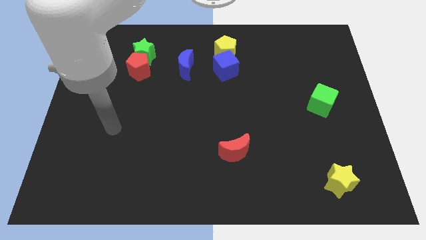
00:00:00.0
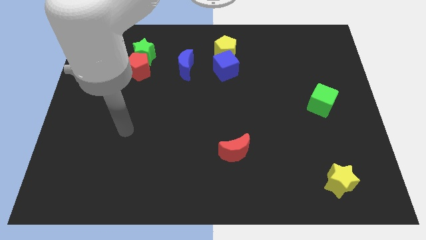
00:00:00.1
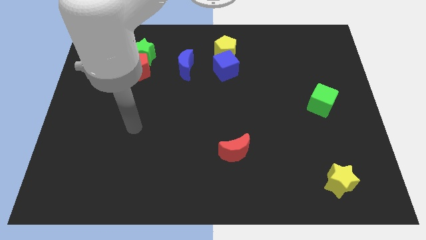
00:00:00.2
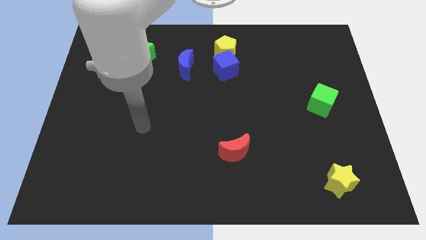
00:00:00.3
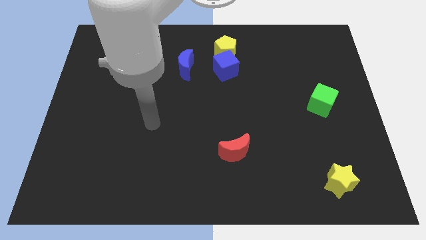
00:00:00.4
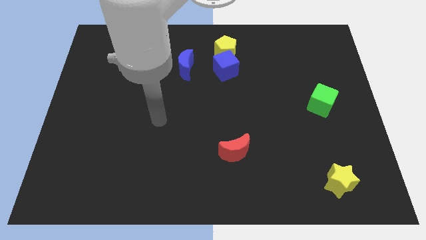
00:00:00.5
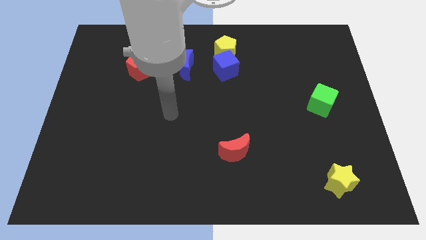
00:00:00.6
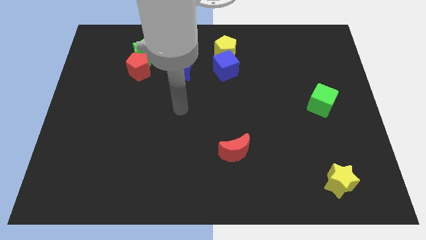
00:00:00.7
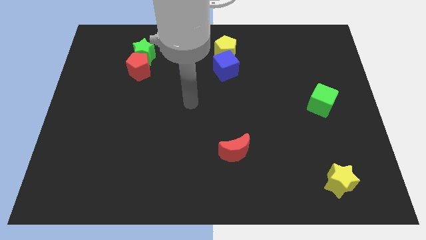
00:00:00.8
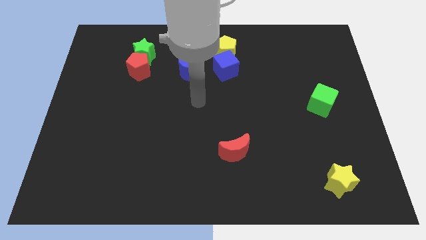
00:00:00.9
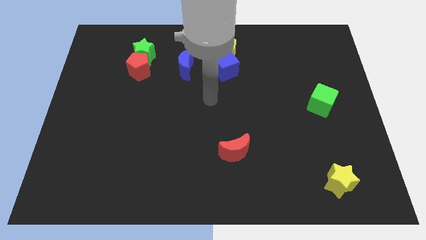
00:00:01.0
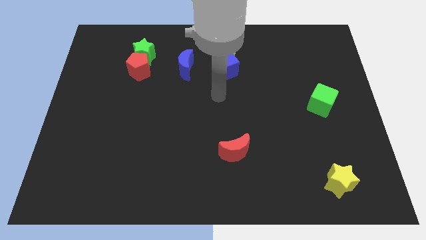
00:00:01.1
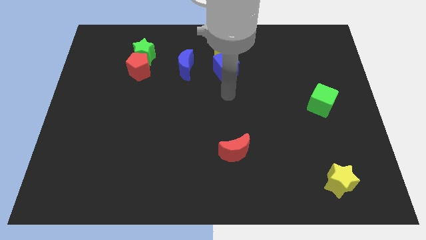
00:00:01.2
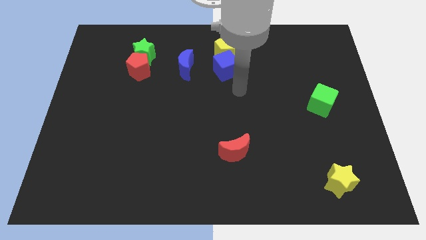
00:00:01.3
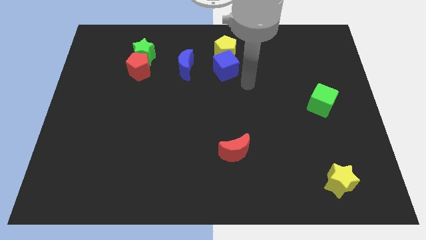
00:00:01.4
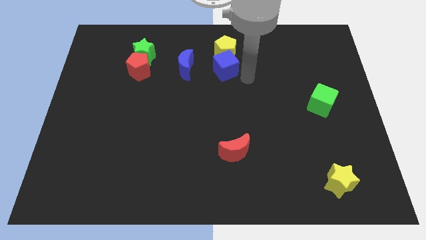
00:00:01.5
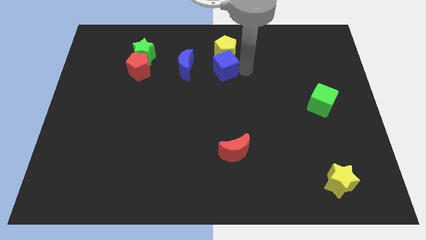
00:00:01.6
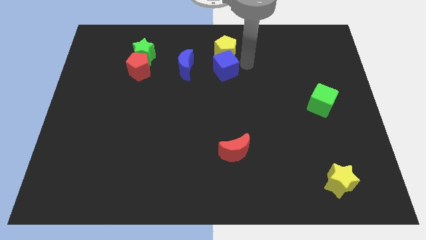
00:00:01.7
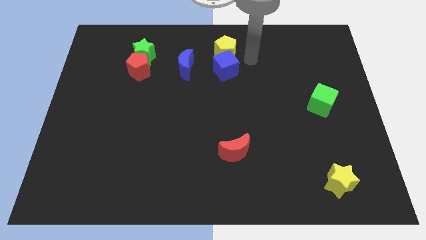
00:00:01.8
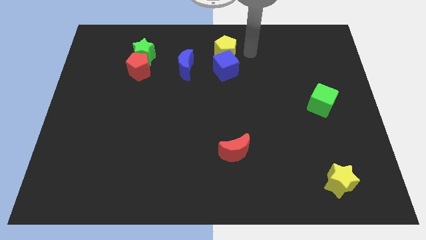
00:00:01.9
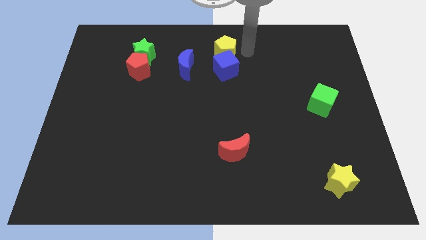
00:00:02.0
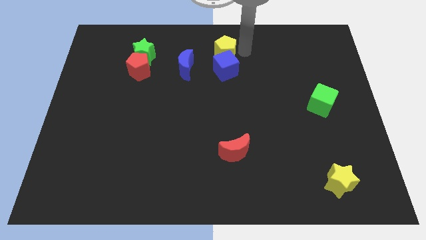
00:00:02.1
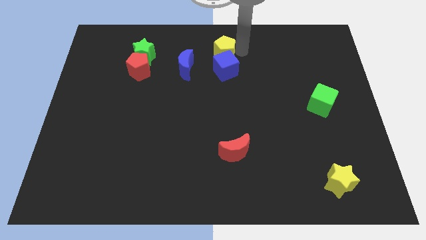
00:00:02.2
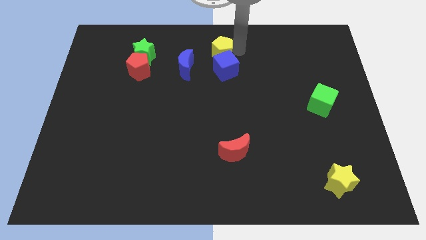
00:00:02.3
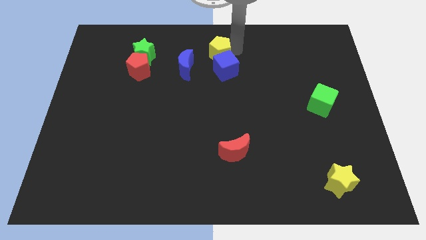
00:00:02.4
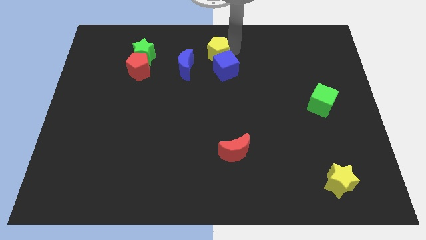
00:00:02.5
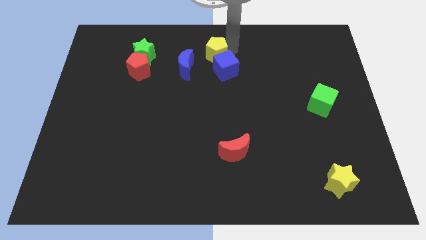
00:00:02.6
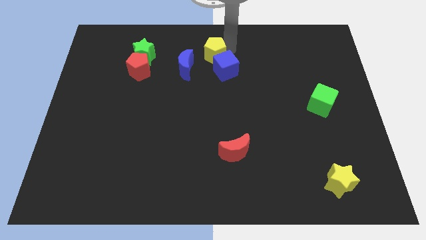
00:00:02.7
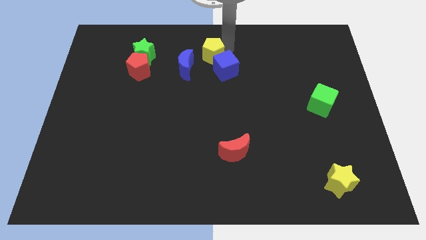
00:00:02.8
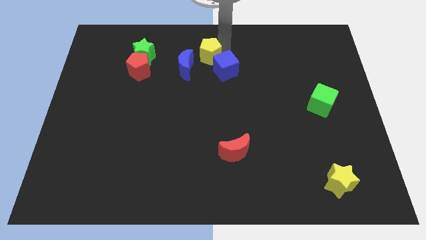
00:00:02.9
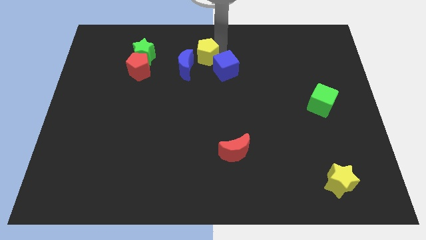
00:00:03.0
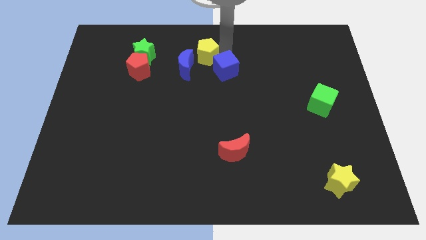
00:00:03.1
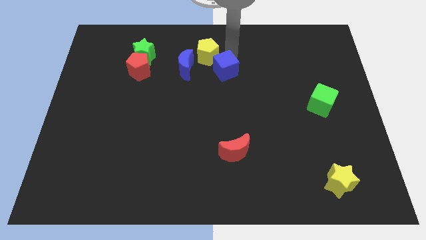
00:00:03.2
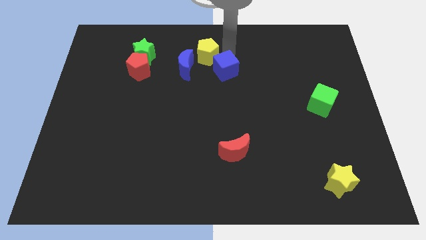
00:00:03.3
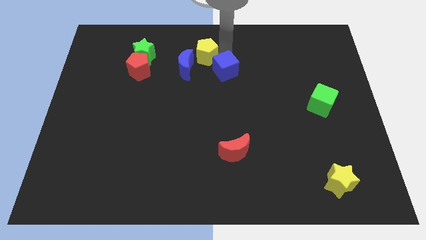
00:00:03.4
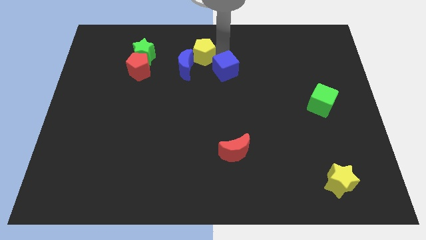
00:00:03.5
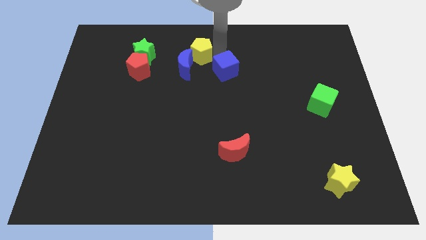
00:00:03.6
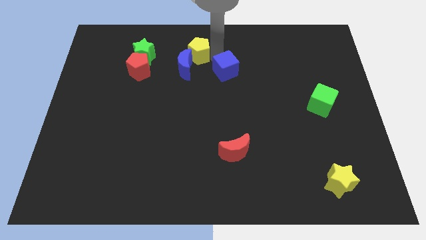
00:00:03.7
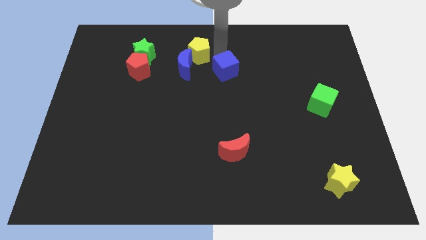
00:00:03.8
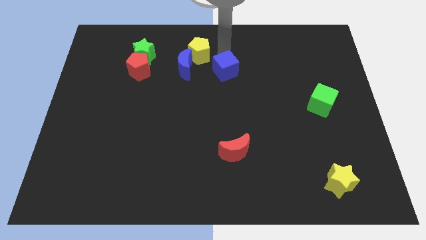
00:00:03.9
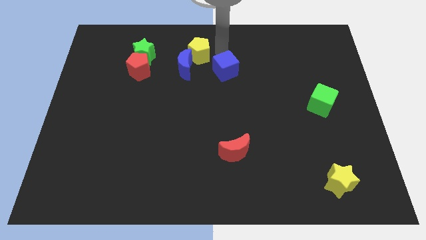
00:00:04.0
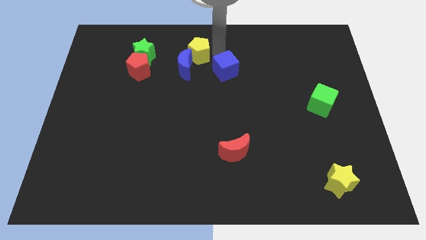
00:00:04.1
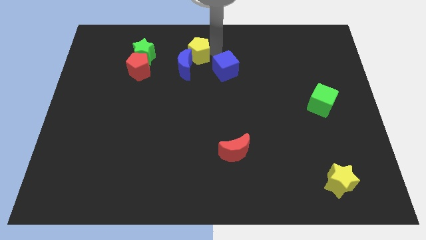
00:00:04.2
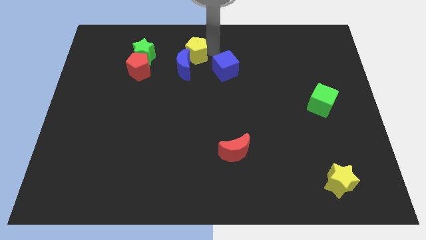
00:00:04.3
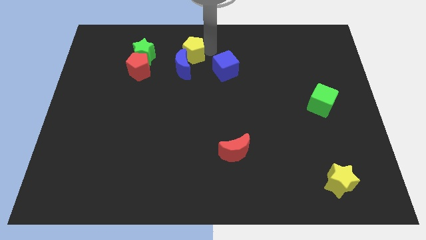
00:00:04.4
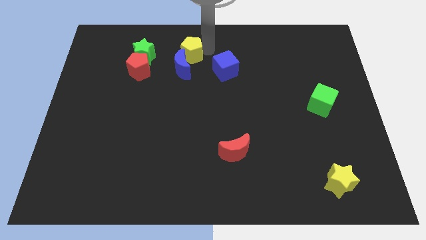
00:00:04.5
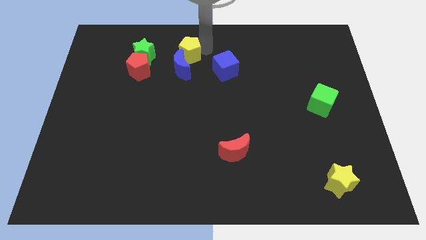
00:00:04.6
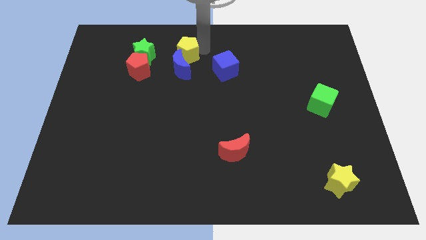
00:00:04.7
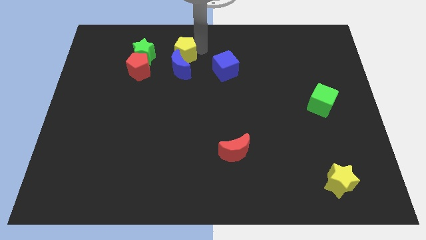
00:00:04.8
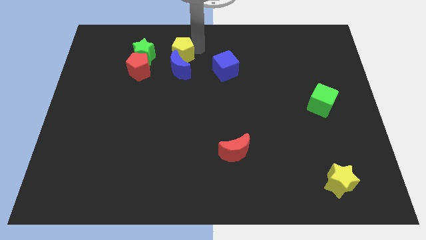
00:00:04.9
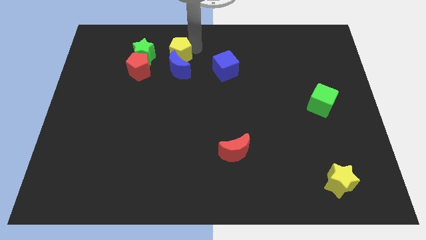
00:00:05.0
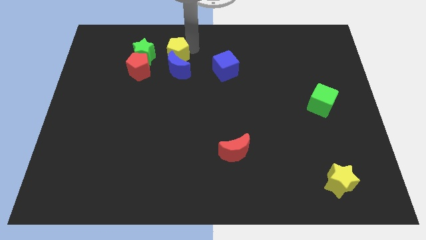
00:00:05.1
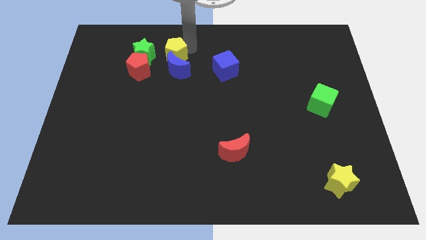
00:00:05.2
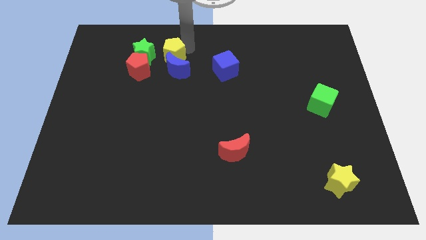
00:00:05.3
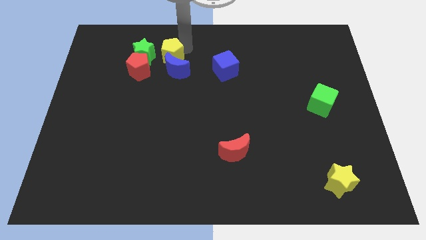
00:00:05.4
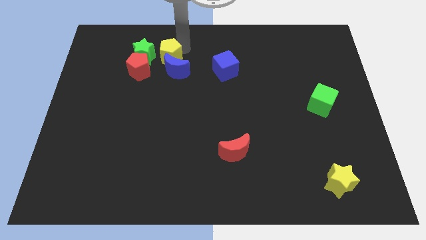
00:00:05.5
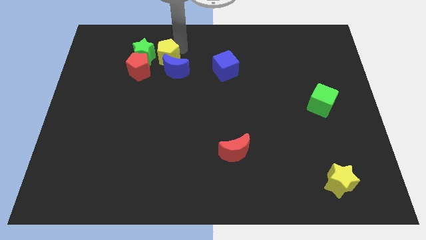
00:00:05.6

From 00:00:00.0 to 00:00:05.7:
put the yellow pentagon to the green star

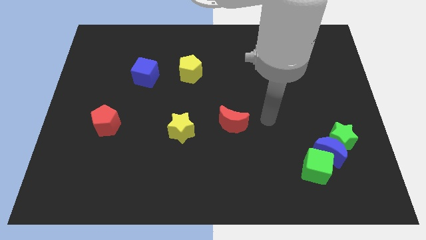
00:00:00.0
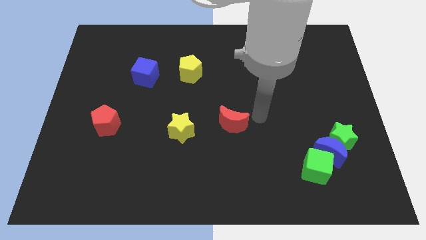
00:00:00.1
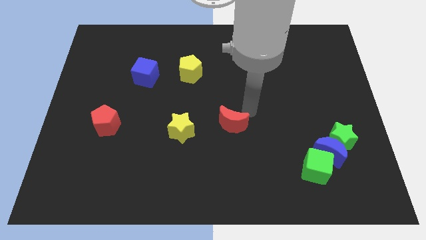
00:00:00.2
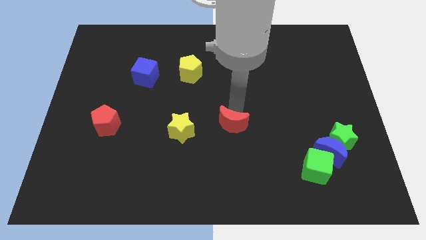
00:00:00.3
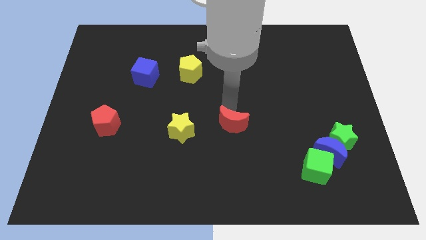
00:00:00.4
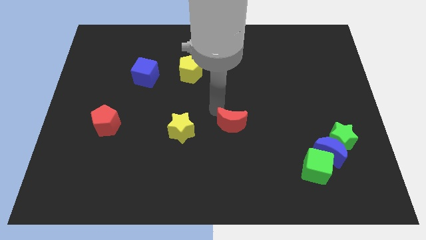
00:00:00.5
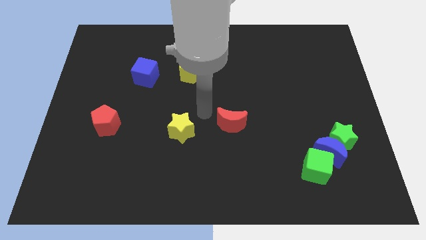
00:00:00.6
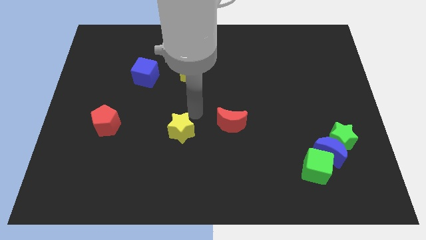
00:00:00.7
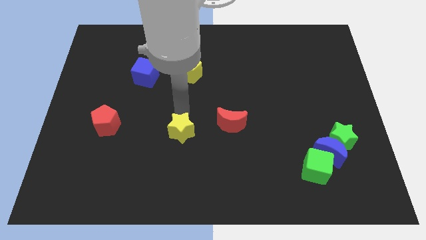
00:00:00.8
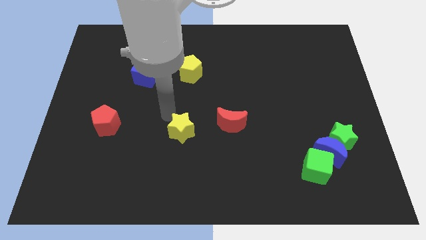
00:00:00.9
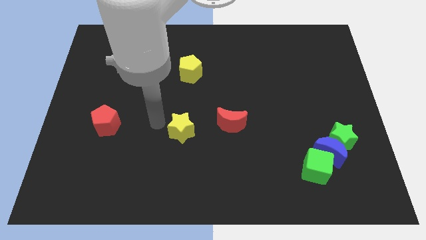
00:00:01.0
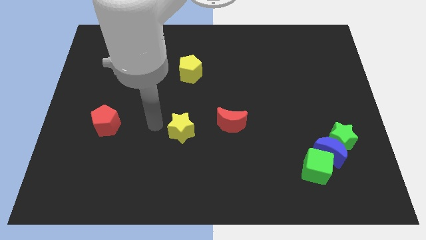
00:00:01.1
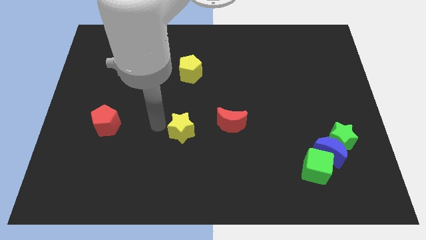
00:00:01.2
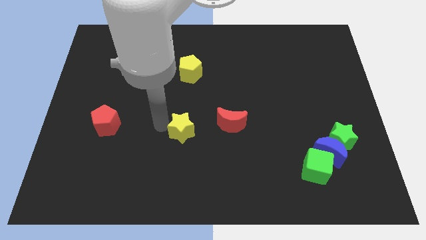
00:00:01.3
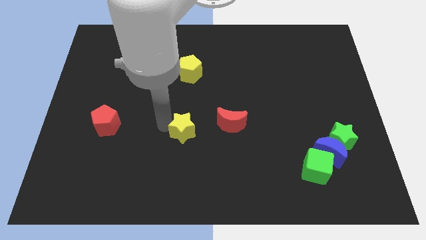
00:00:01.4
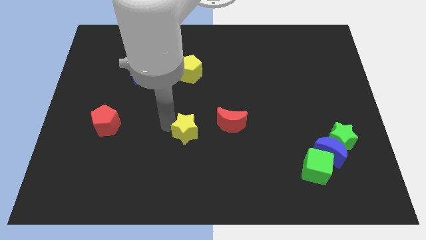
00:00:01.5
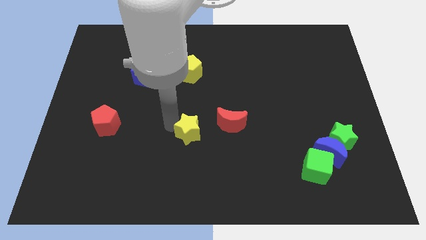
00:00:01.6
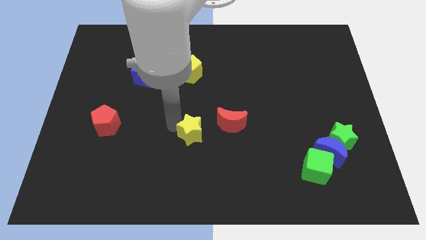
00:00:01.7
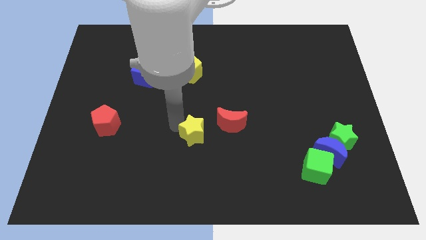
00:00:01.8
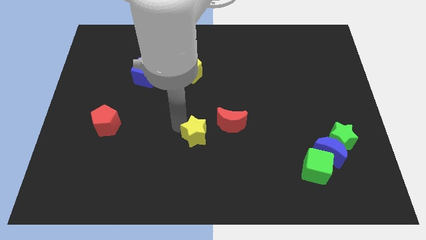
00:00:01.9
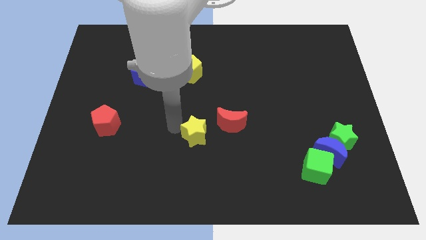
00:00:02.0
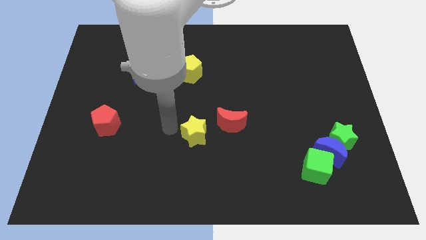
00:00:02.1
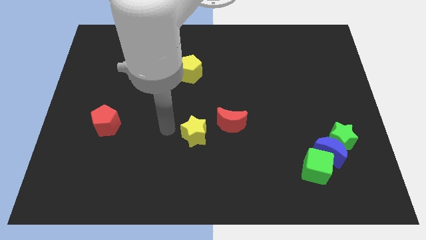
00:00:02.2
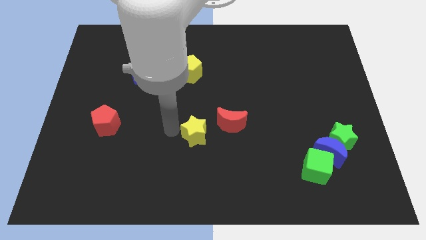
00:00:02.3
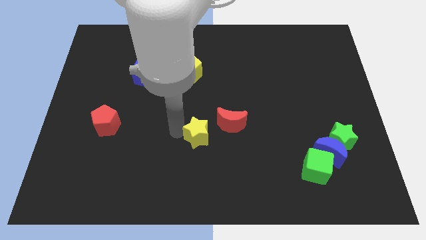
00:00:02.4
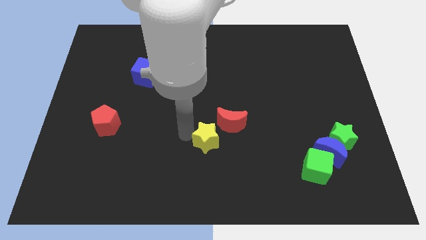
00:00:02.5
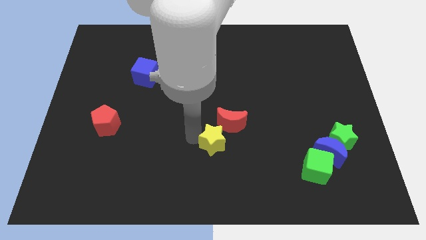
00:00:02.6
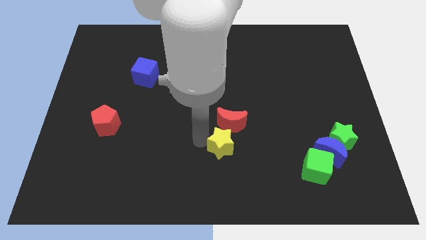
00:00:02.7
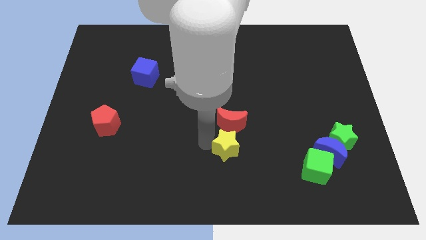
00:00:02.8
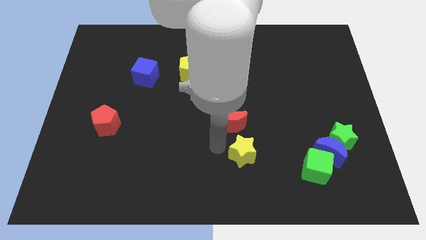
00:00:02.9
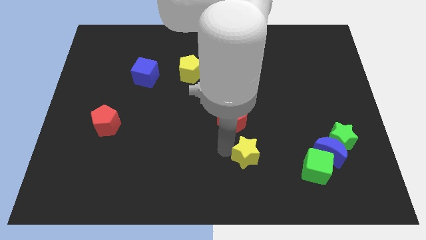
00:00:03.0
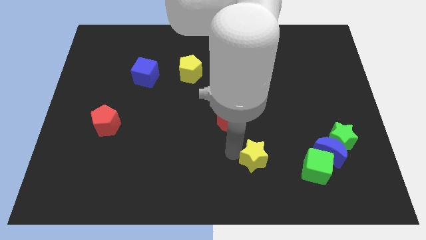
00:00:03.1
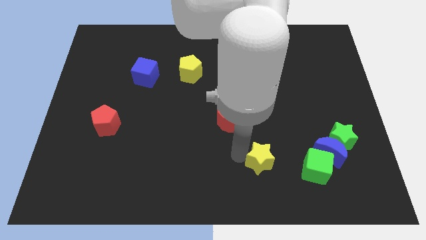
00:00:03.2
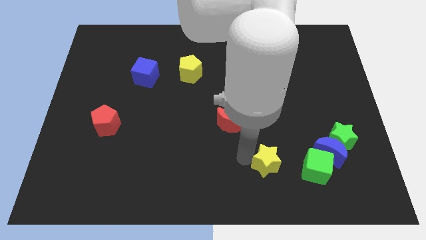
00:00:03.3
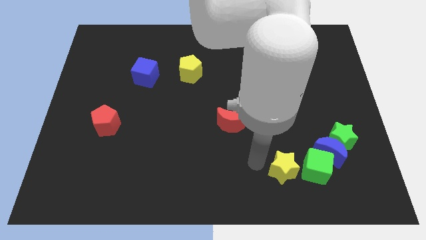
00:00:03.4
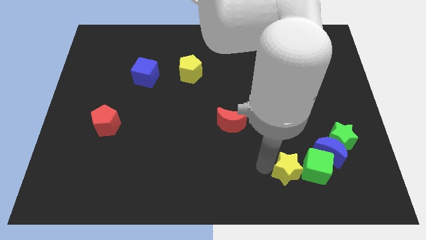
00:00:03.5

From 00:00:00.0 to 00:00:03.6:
move the yellow star next to the green cube
